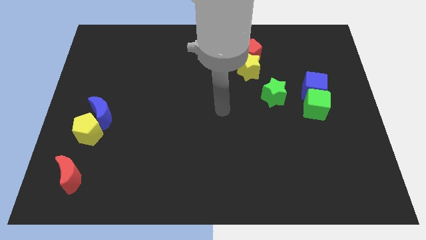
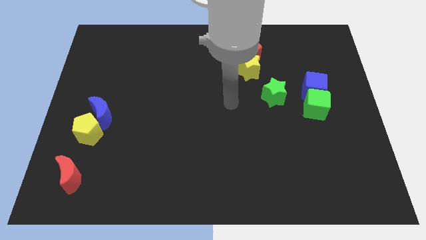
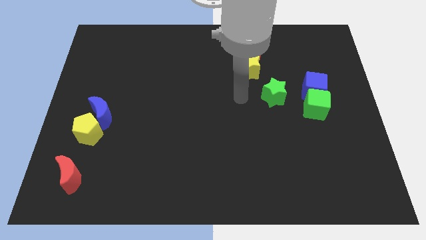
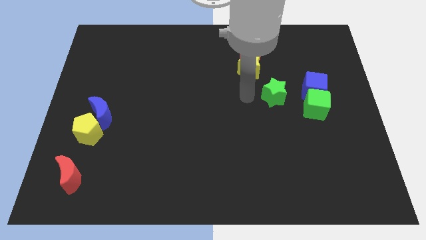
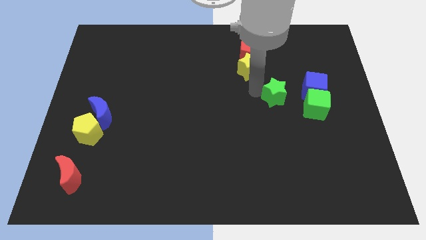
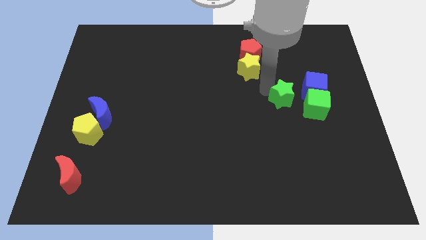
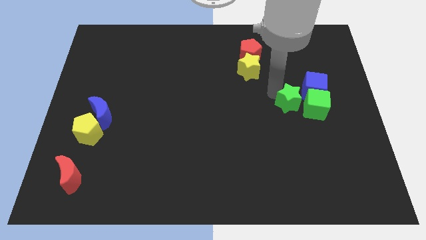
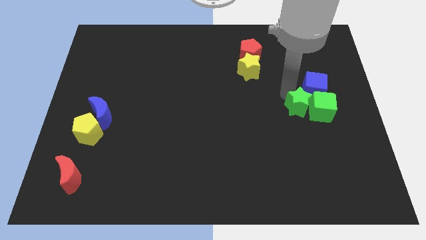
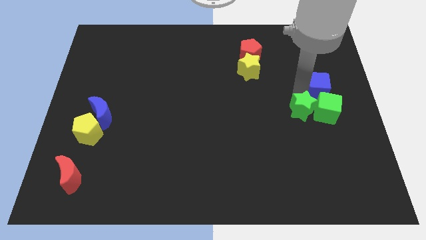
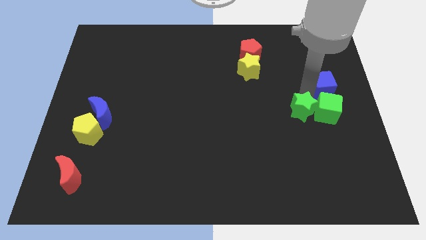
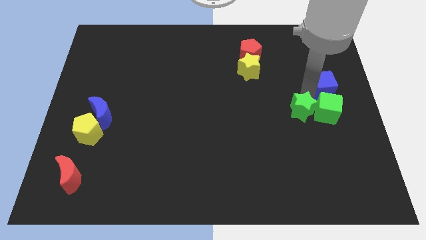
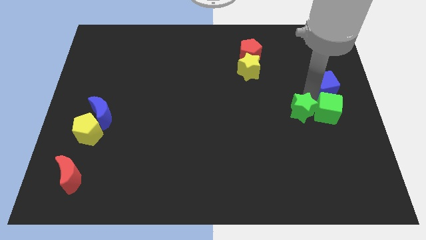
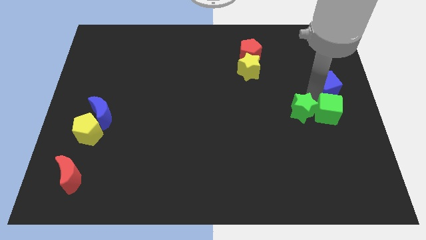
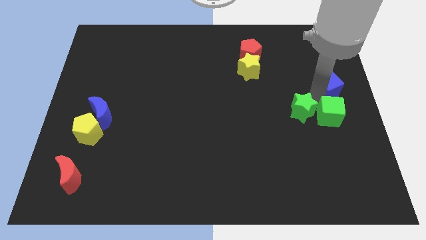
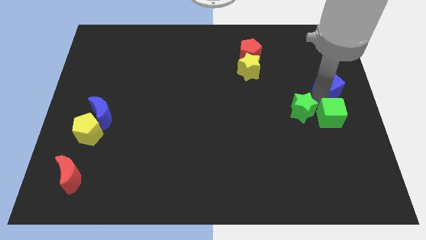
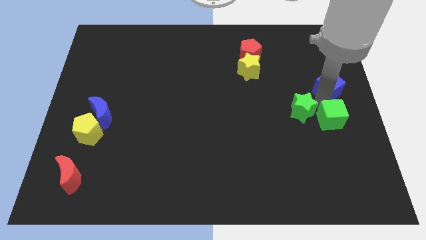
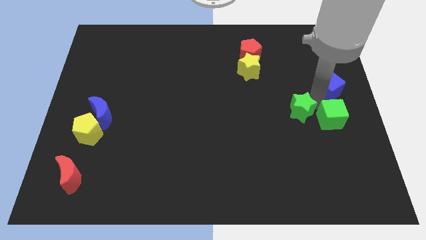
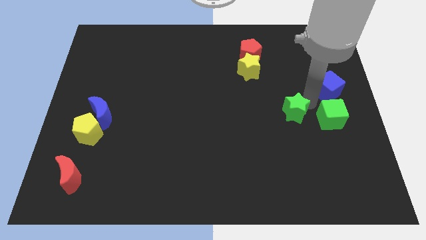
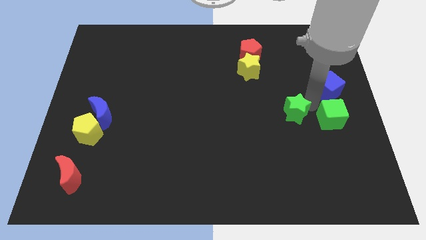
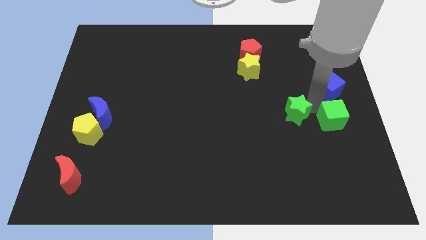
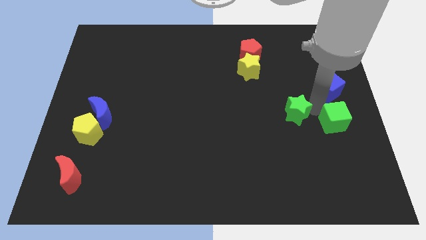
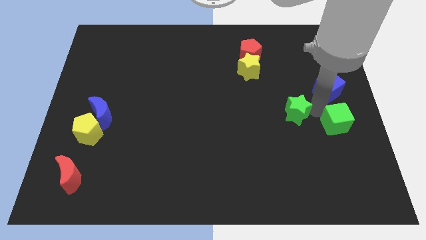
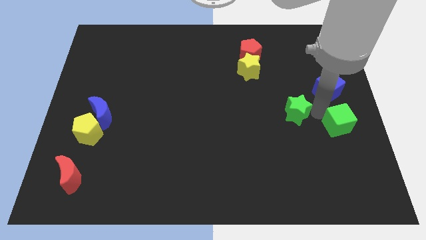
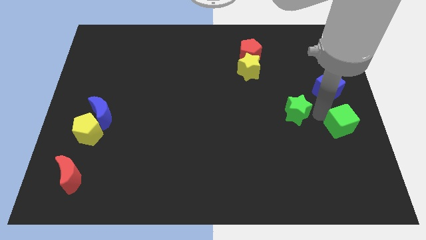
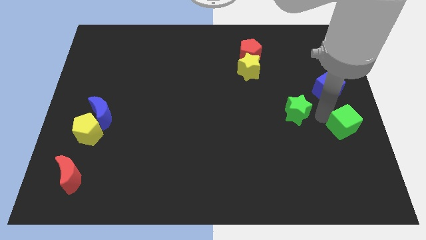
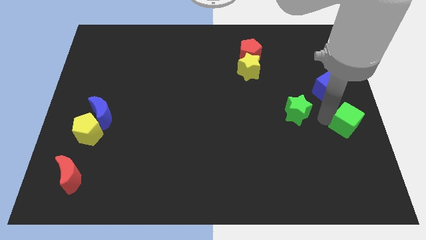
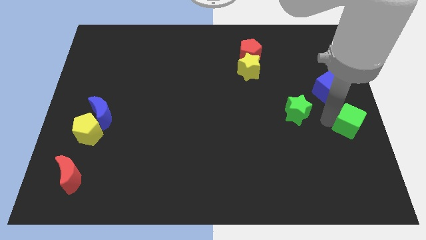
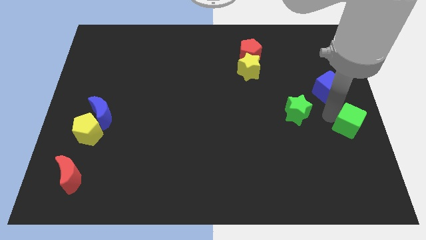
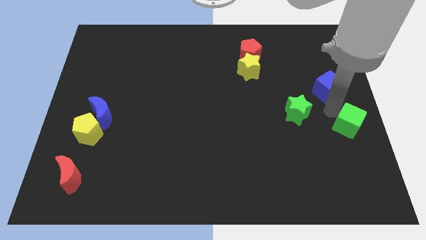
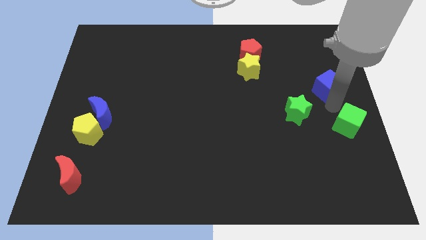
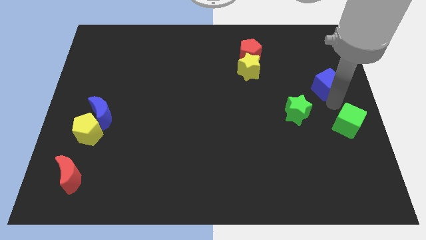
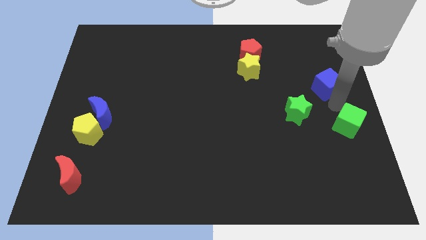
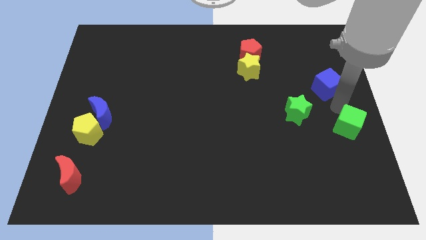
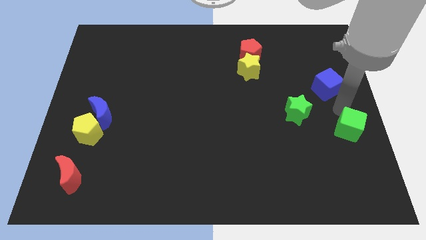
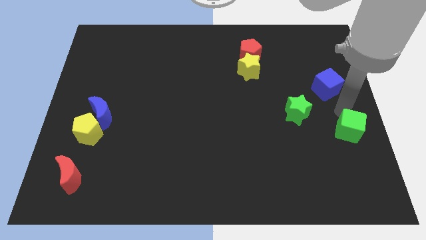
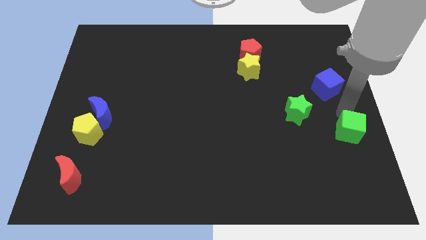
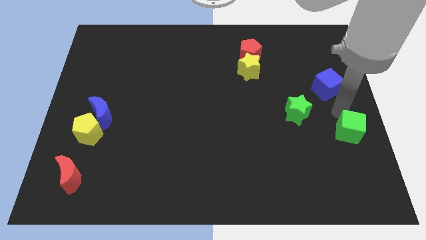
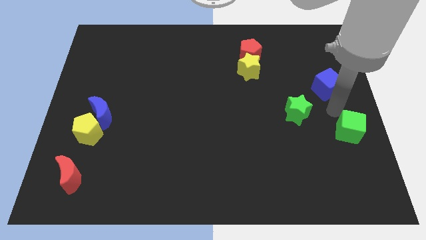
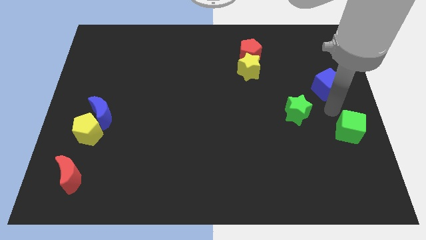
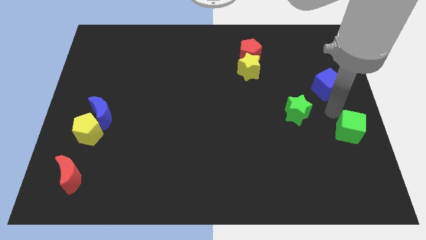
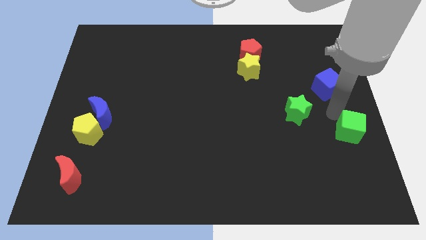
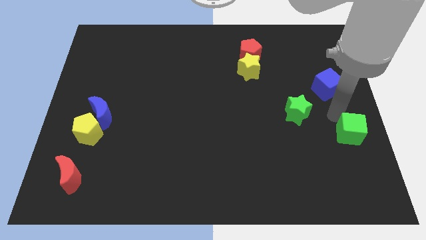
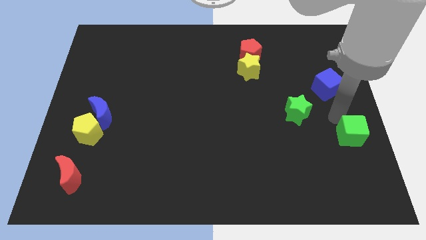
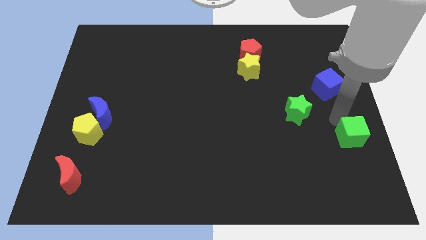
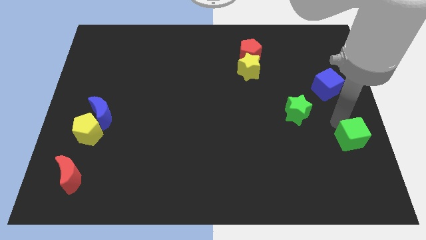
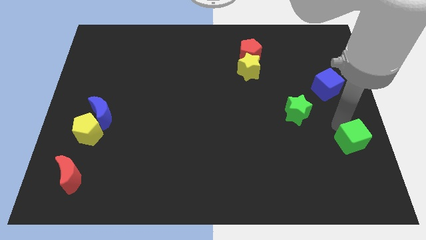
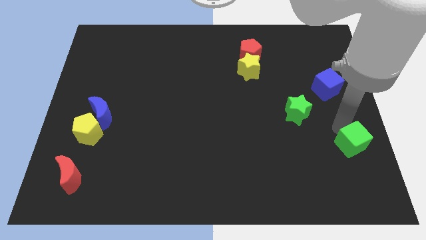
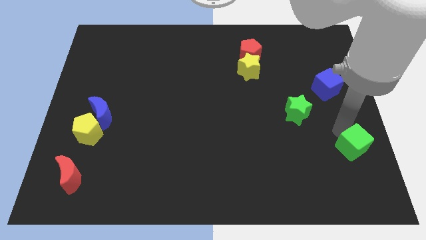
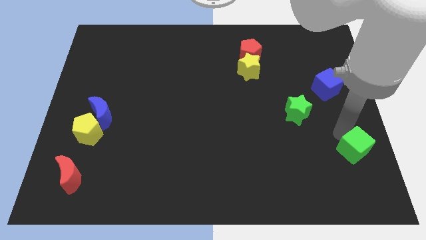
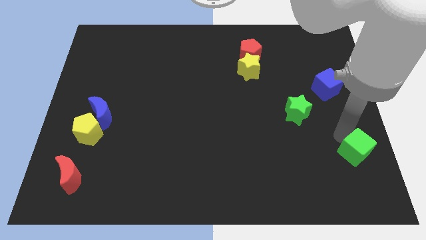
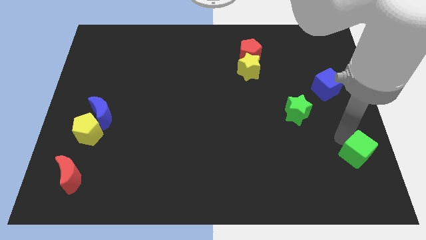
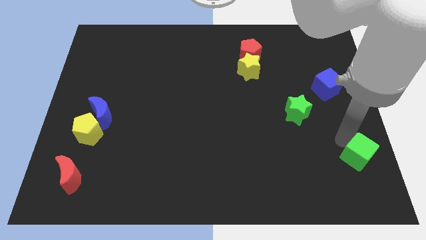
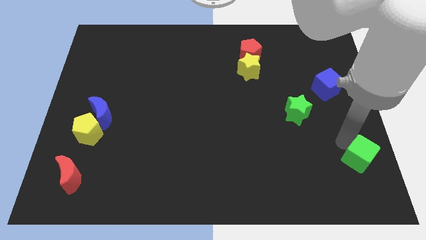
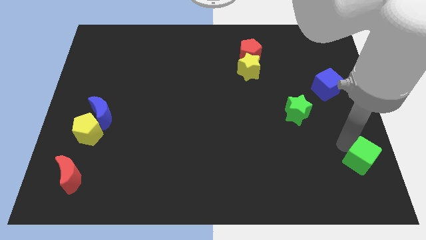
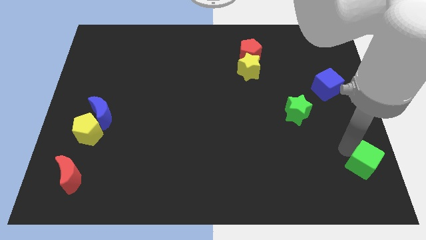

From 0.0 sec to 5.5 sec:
put the green cube to the bottom right

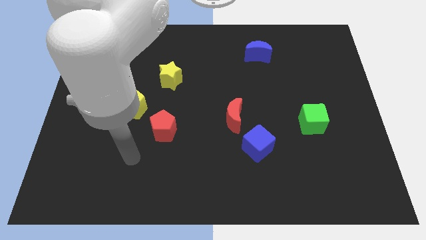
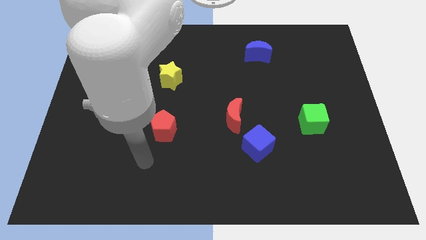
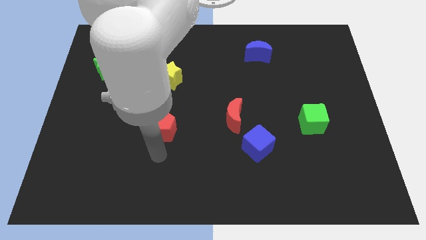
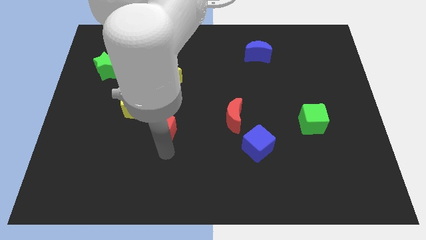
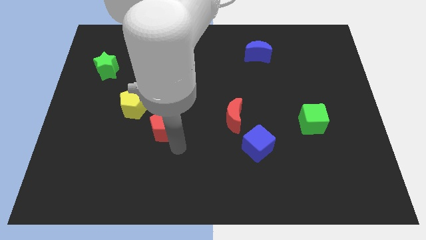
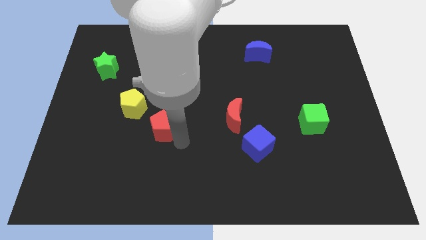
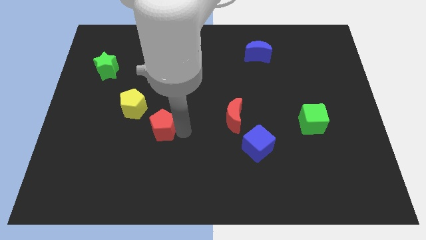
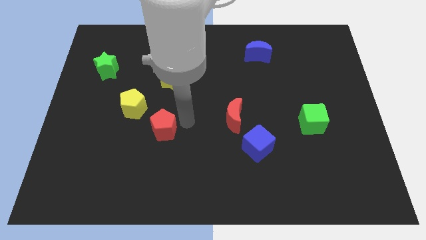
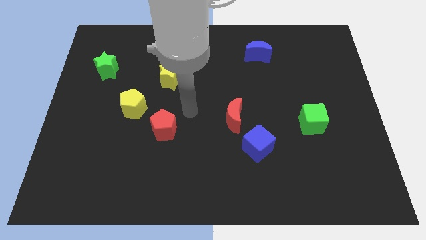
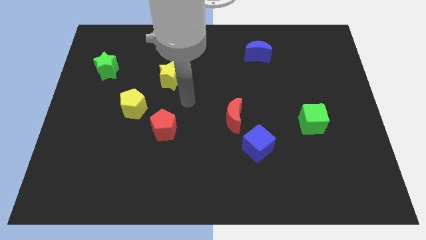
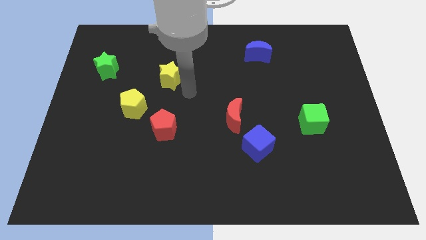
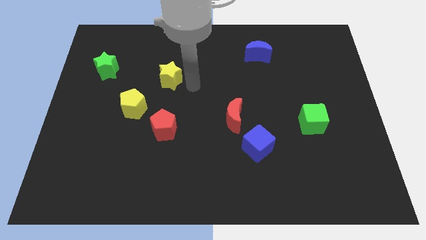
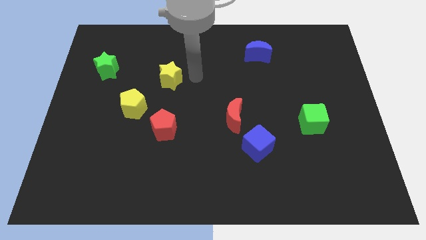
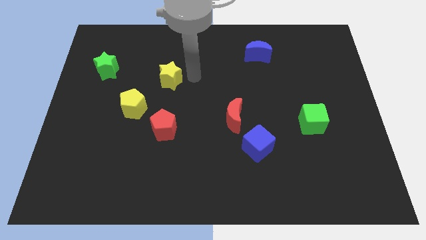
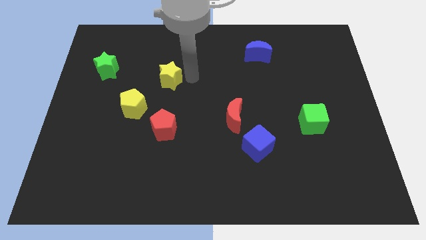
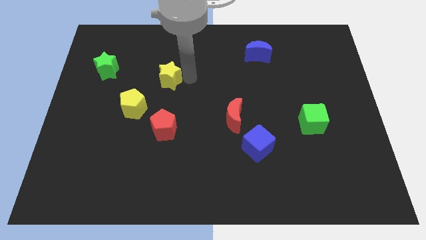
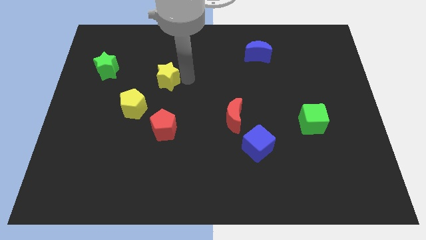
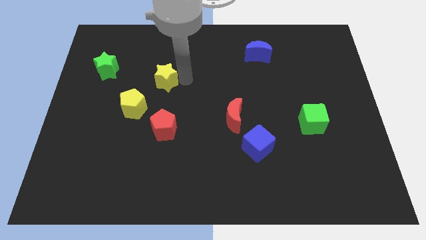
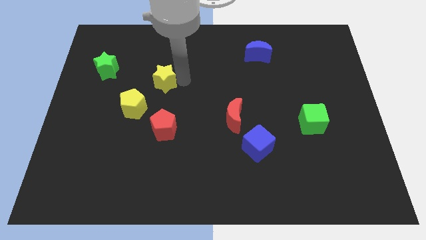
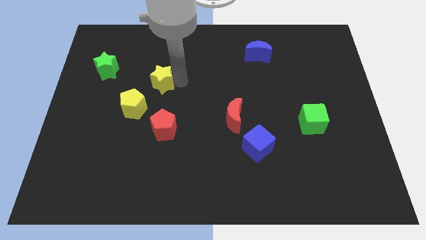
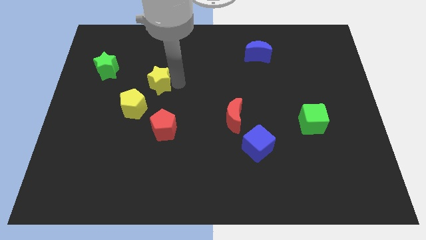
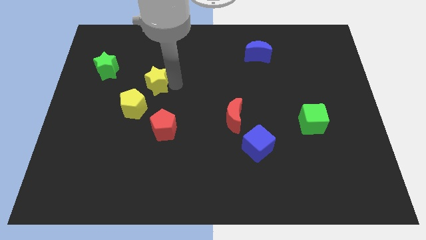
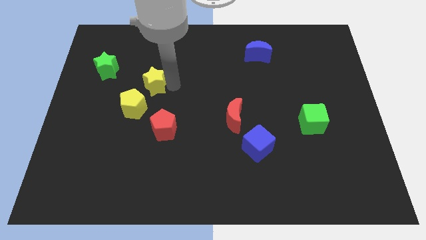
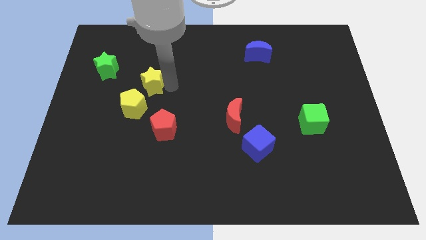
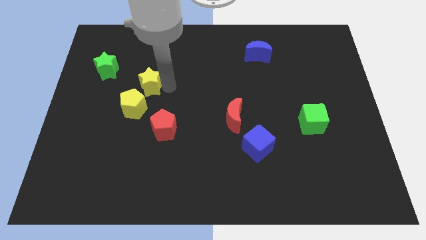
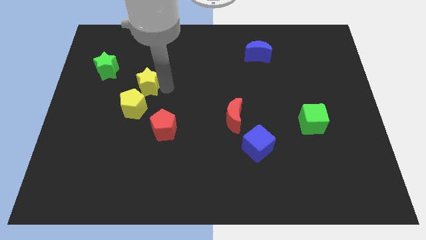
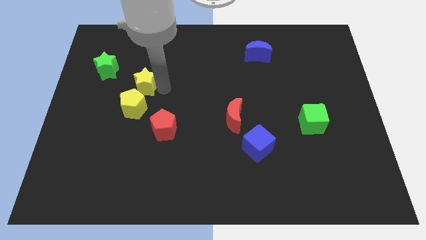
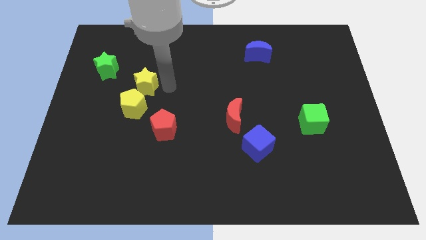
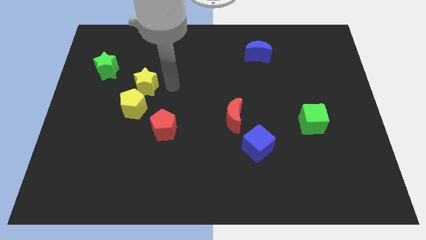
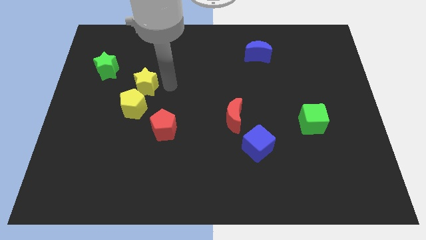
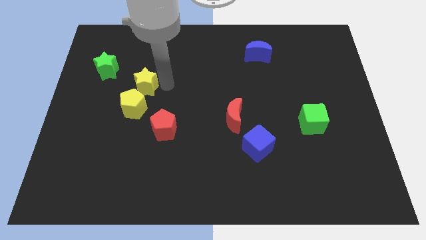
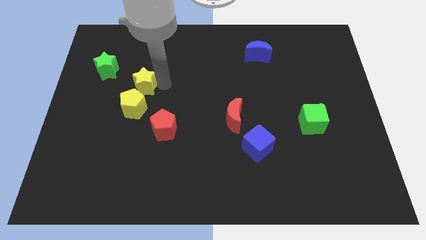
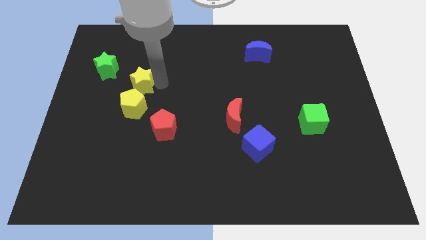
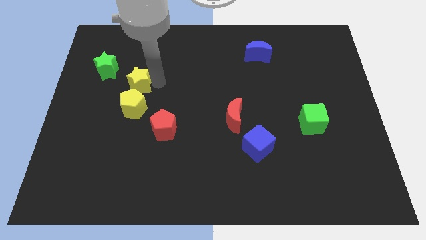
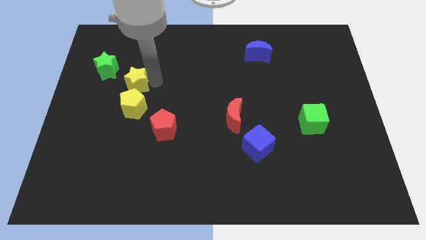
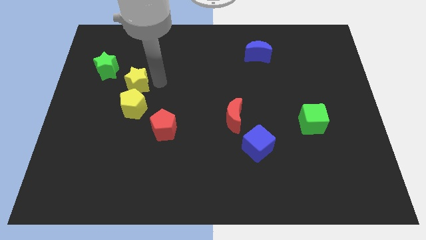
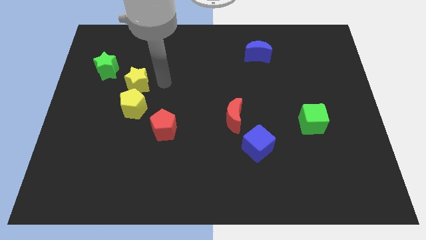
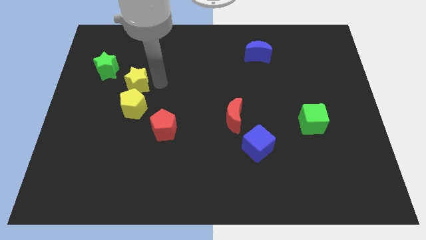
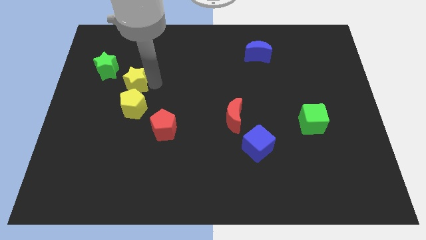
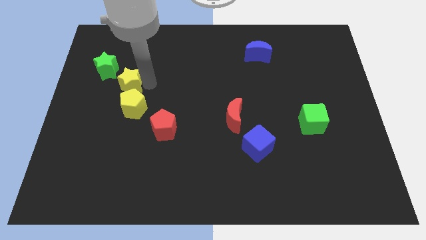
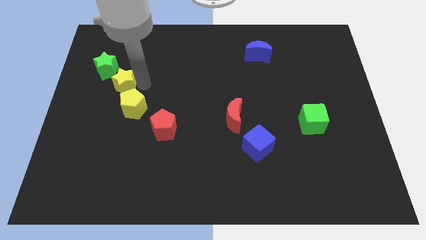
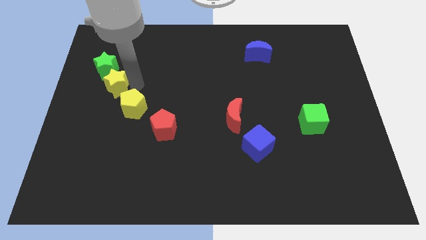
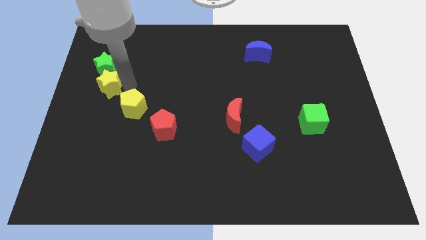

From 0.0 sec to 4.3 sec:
push the yellow star to the left side
